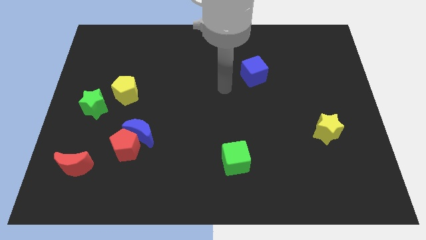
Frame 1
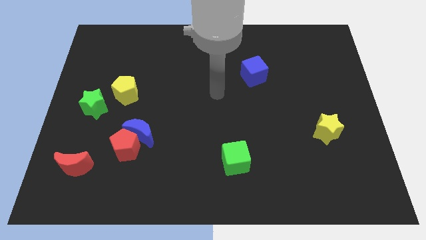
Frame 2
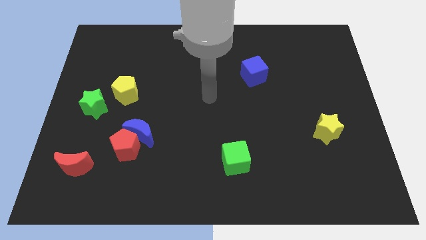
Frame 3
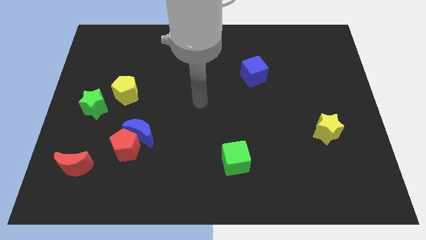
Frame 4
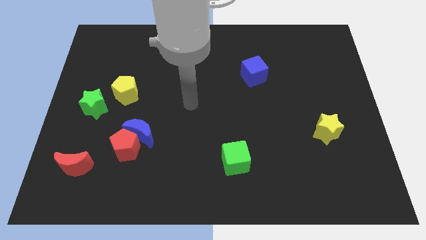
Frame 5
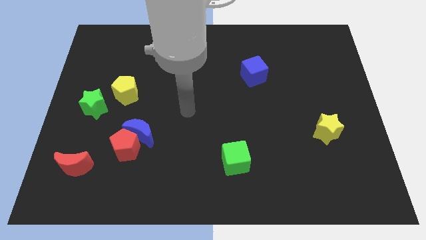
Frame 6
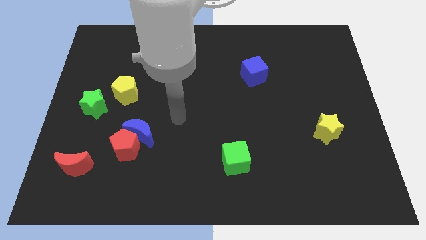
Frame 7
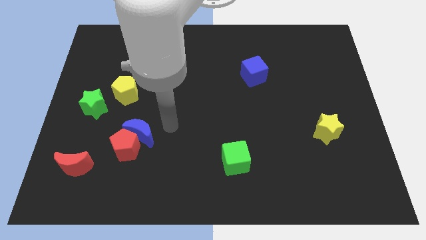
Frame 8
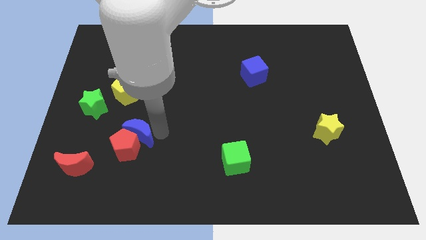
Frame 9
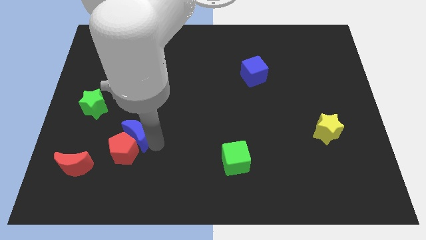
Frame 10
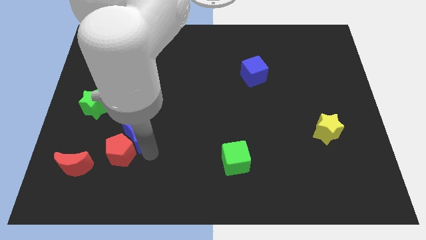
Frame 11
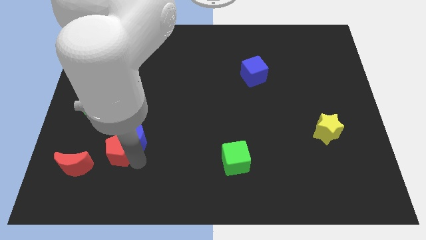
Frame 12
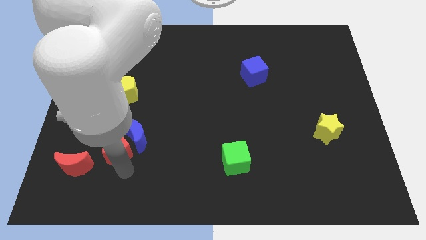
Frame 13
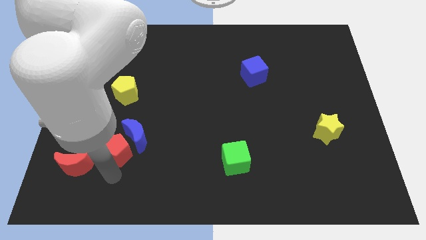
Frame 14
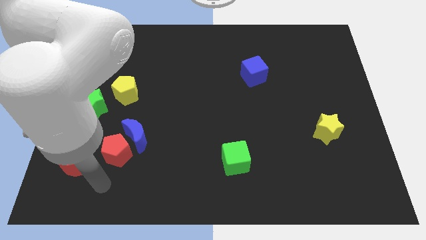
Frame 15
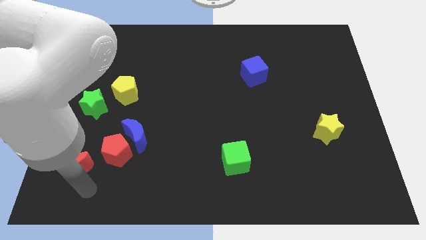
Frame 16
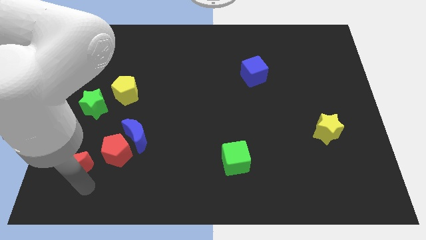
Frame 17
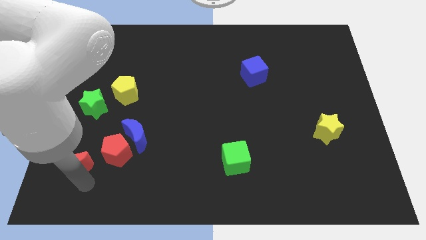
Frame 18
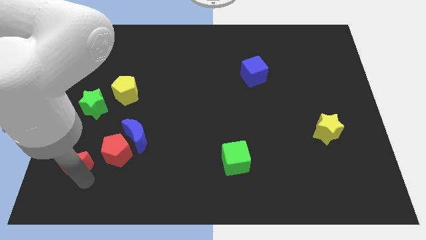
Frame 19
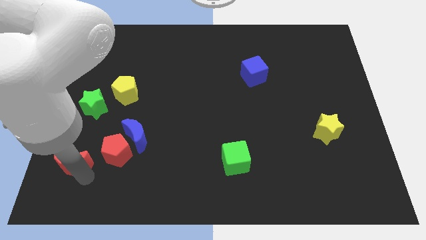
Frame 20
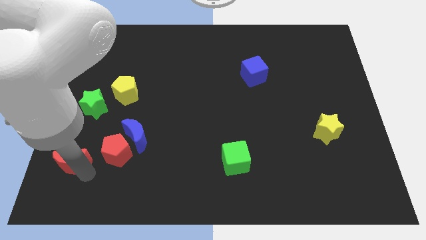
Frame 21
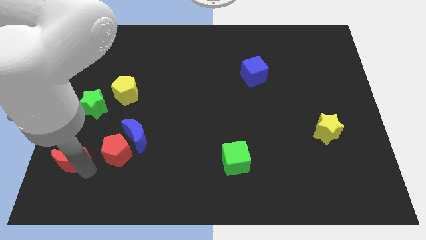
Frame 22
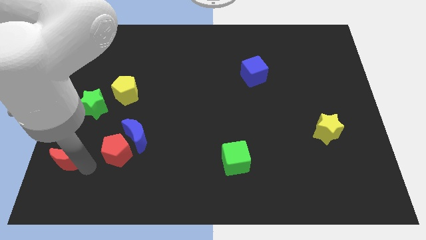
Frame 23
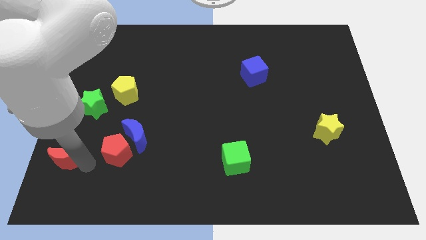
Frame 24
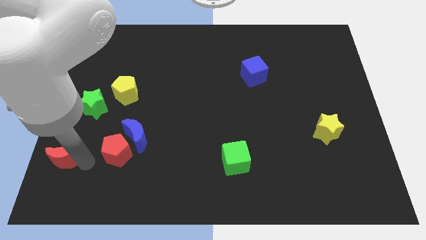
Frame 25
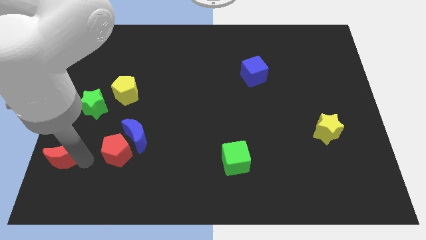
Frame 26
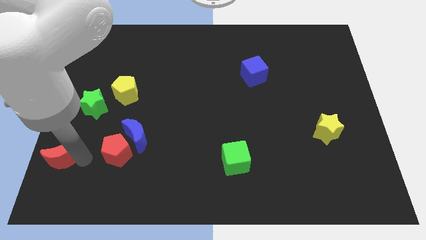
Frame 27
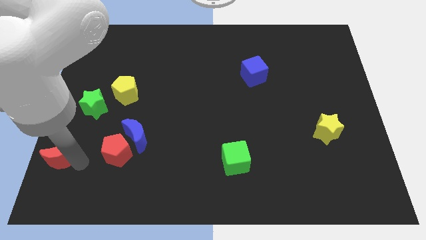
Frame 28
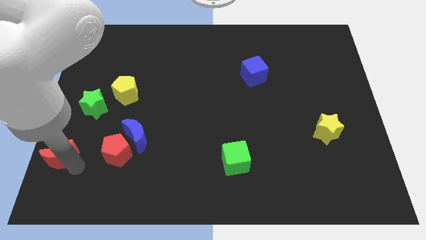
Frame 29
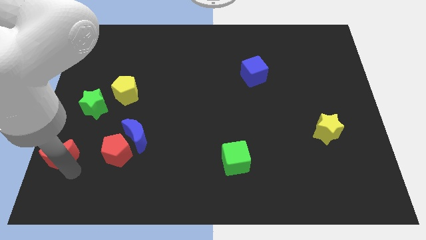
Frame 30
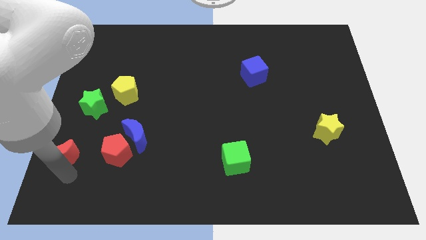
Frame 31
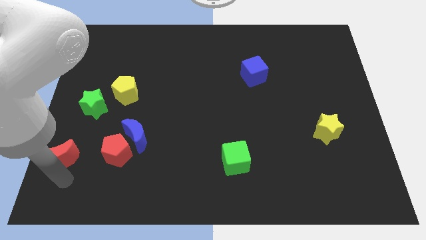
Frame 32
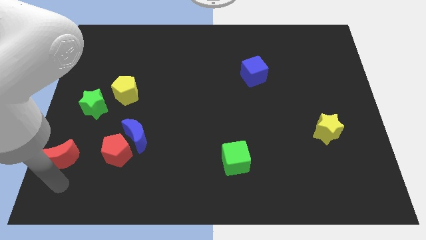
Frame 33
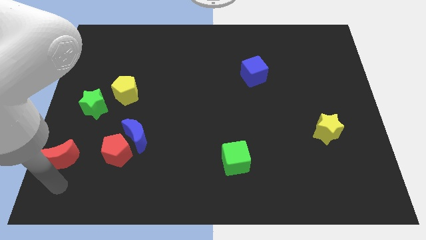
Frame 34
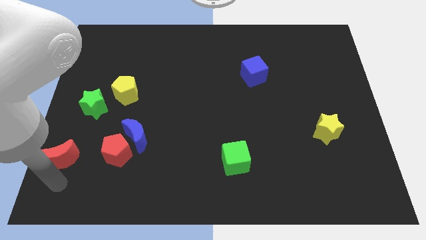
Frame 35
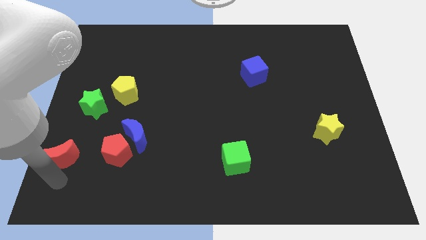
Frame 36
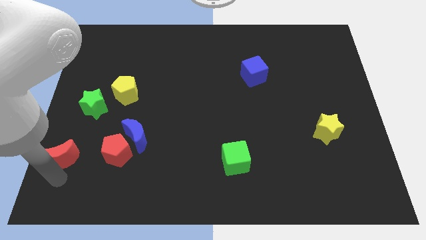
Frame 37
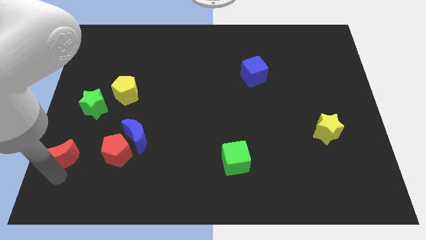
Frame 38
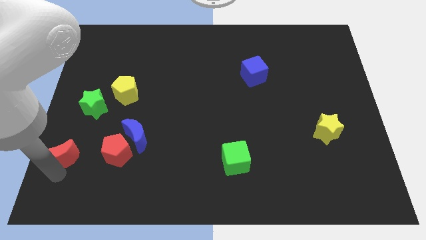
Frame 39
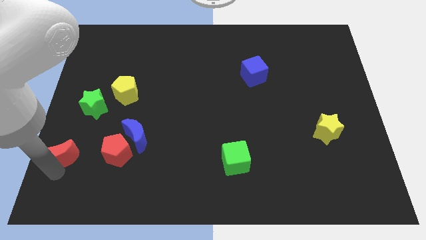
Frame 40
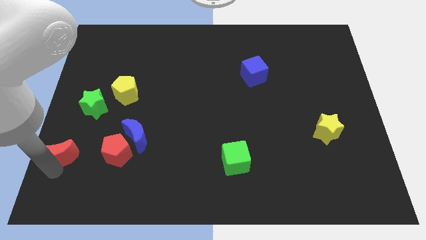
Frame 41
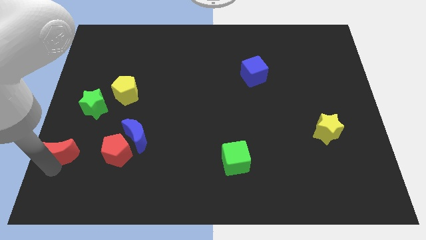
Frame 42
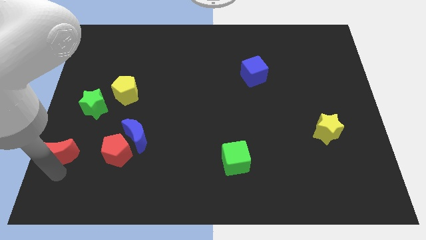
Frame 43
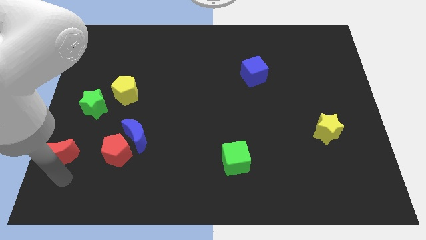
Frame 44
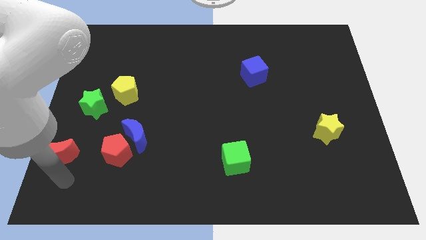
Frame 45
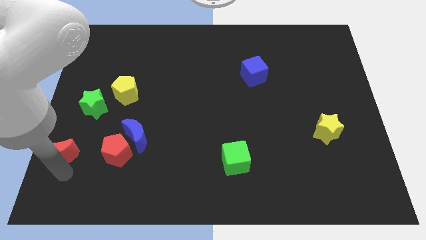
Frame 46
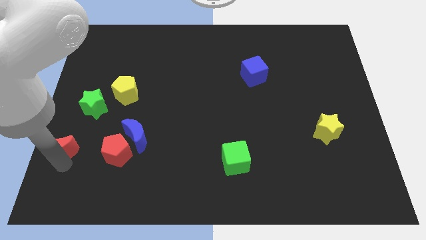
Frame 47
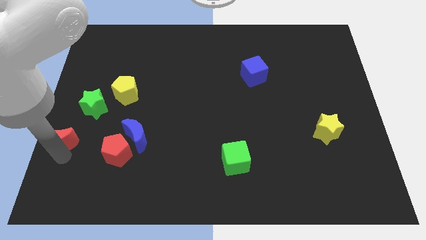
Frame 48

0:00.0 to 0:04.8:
push the red moon to the left side of the board

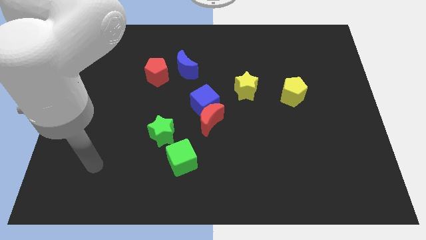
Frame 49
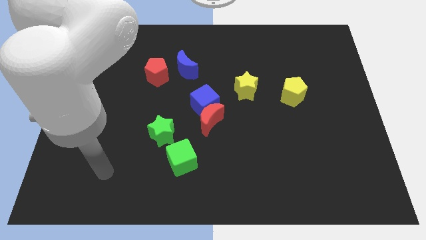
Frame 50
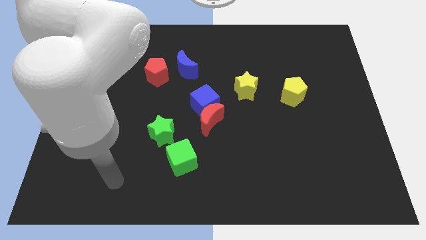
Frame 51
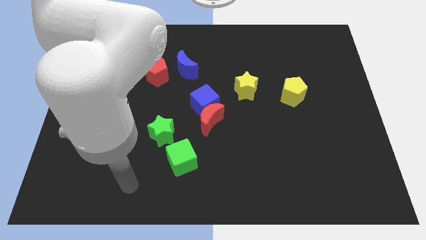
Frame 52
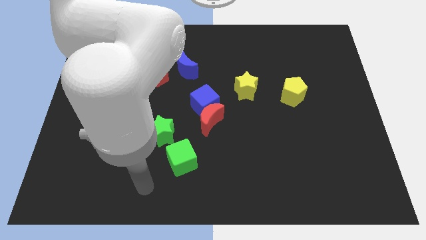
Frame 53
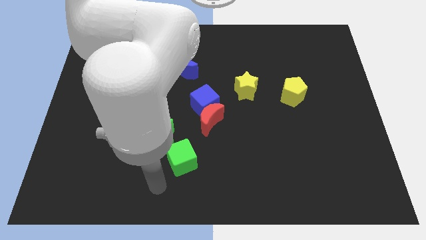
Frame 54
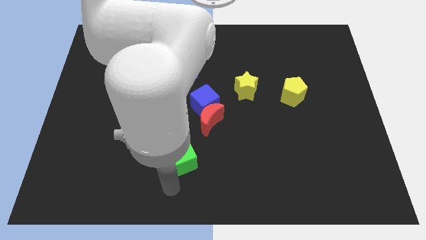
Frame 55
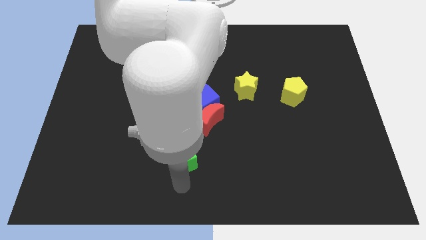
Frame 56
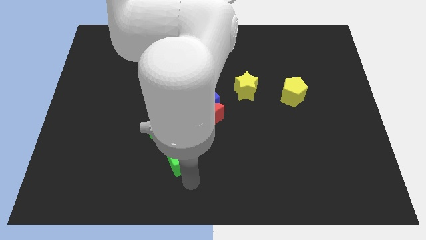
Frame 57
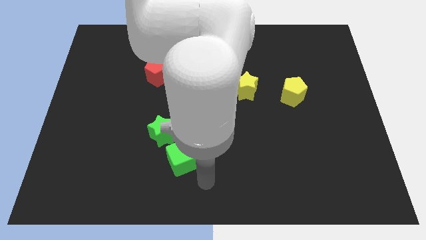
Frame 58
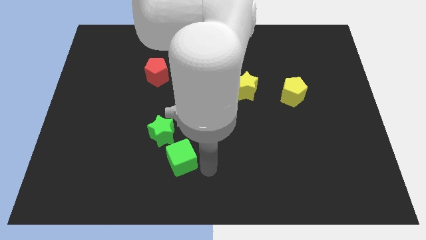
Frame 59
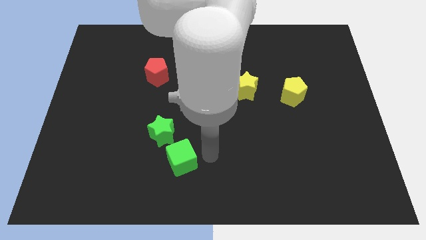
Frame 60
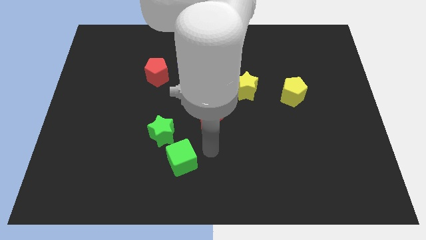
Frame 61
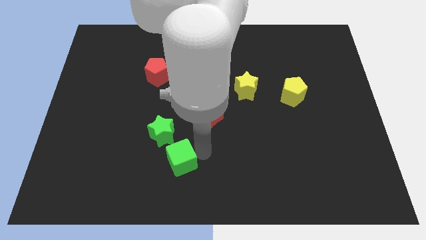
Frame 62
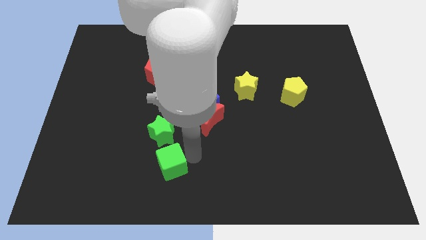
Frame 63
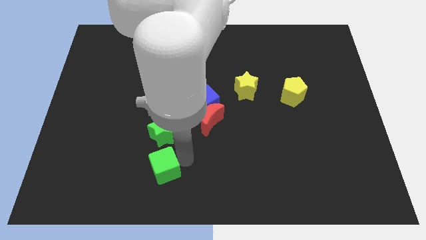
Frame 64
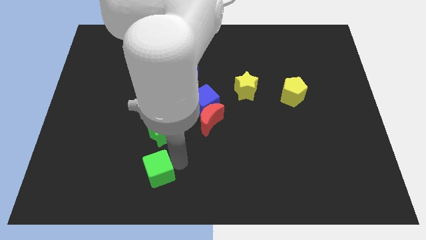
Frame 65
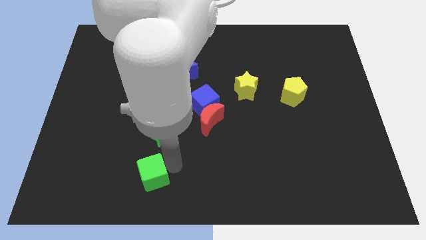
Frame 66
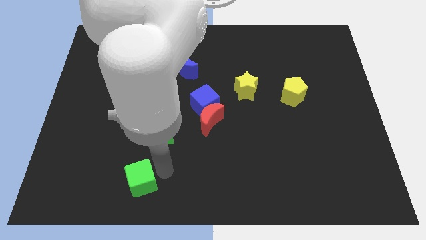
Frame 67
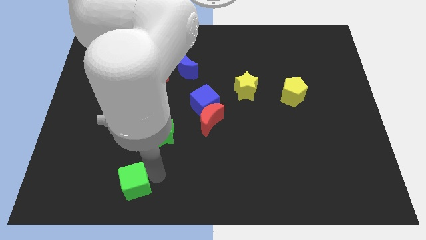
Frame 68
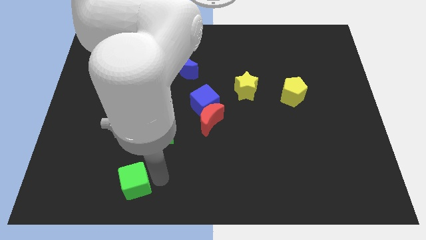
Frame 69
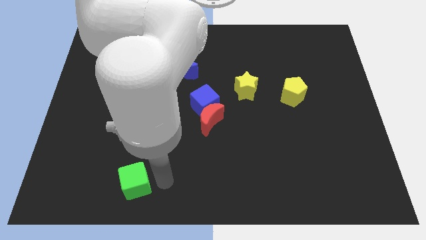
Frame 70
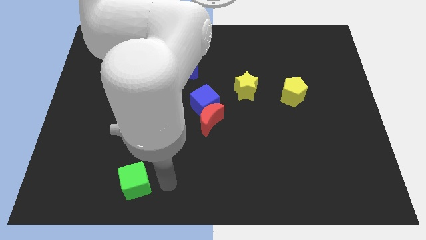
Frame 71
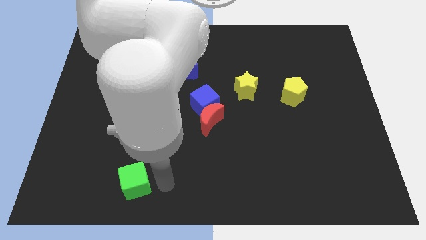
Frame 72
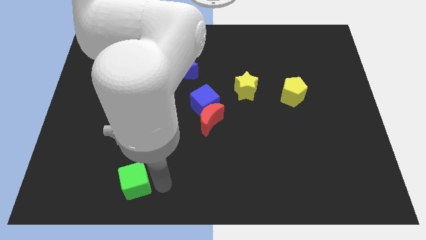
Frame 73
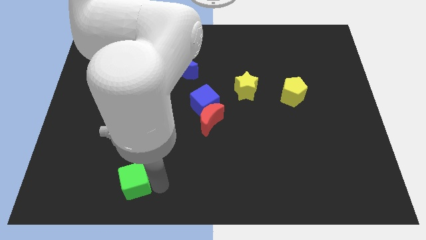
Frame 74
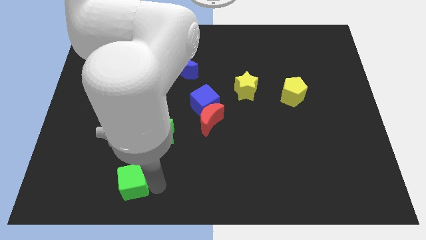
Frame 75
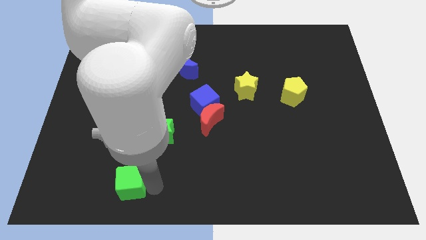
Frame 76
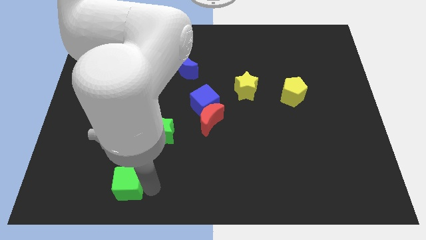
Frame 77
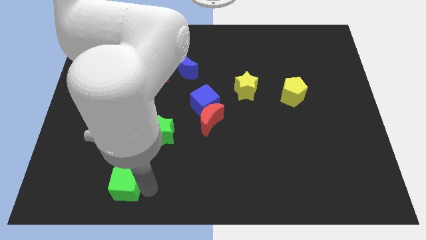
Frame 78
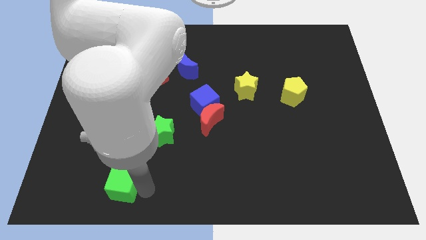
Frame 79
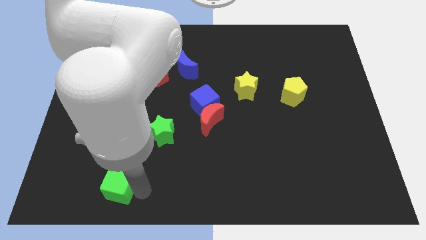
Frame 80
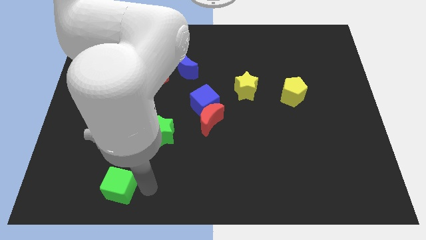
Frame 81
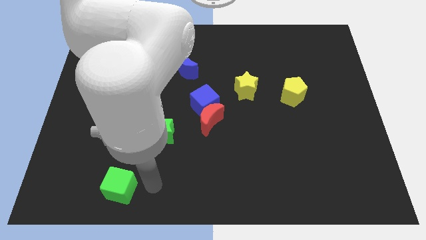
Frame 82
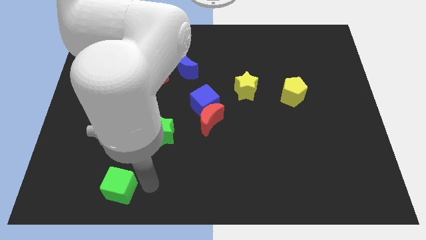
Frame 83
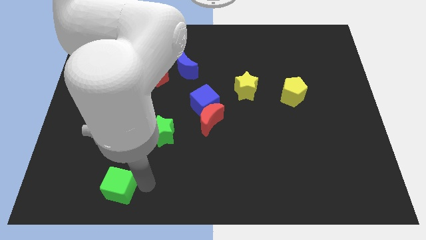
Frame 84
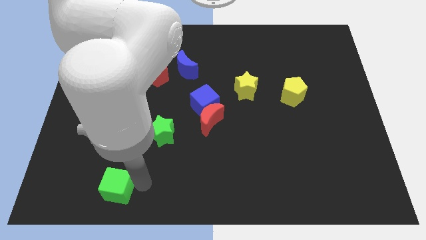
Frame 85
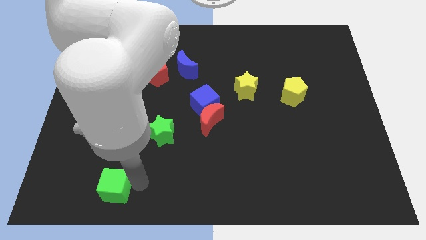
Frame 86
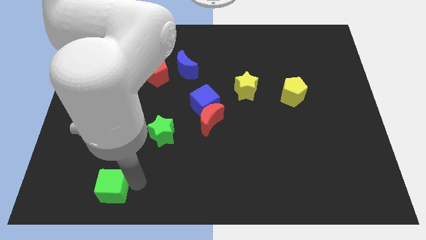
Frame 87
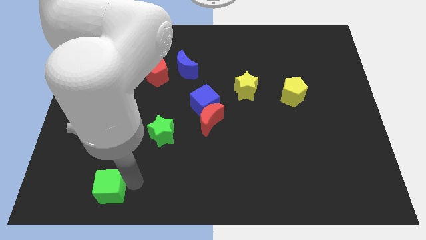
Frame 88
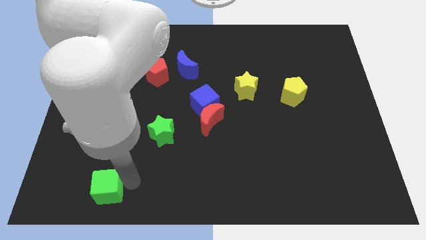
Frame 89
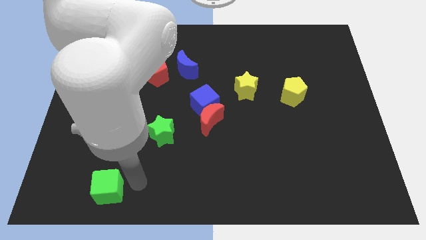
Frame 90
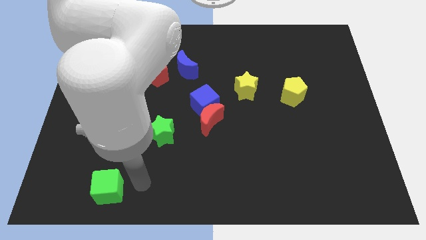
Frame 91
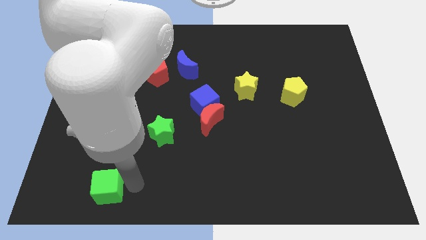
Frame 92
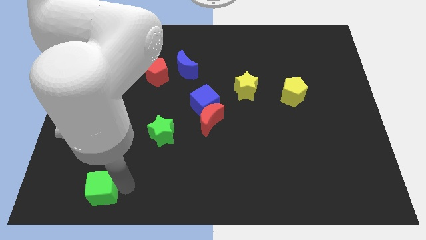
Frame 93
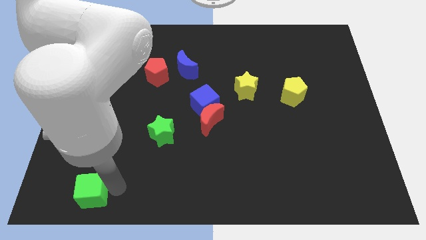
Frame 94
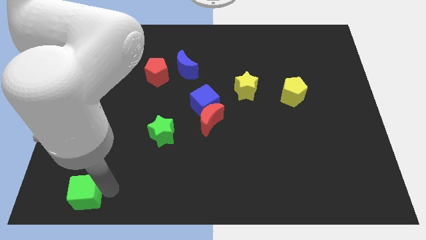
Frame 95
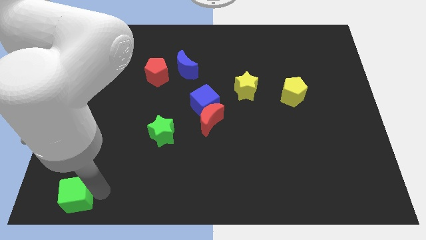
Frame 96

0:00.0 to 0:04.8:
move the green cube to the lower left corner
